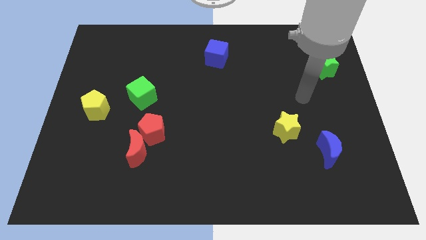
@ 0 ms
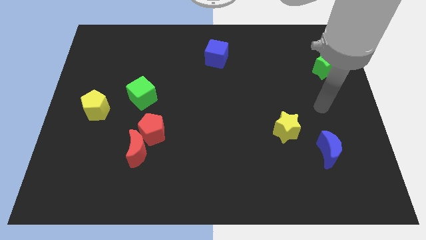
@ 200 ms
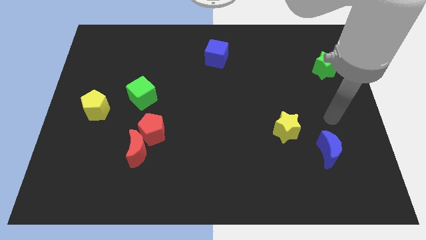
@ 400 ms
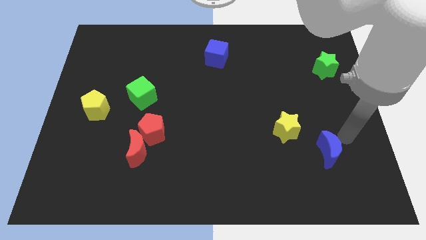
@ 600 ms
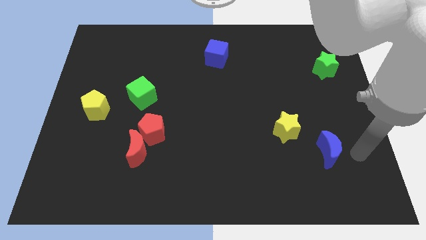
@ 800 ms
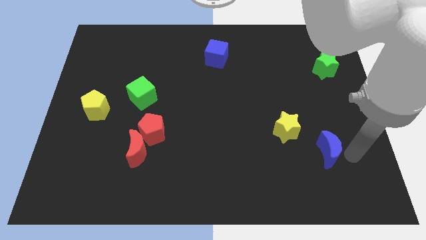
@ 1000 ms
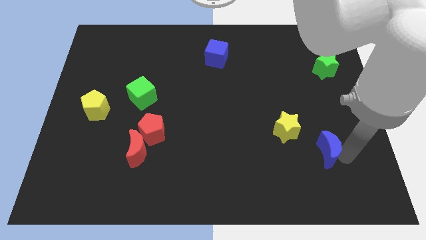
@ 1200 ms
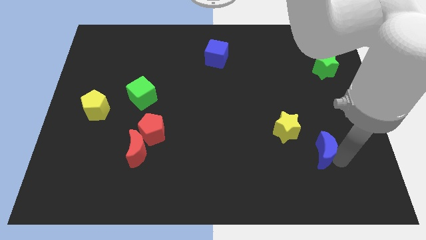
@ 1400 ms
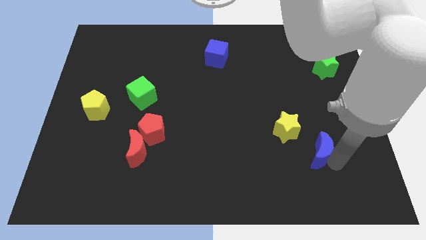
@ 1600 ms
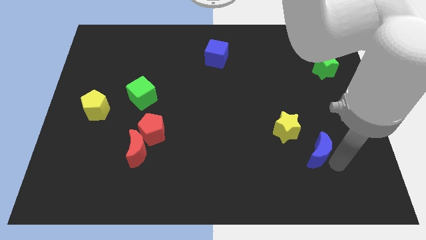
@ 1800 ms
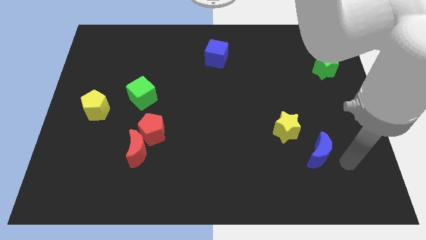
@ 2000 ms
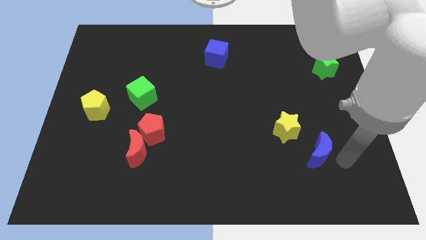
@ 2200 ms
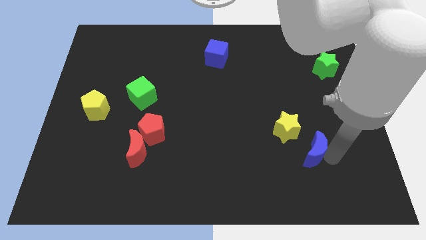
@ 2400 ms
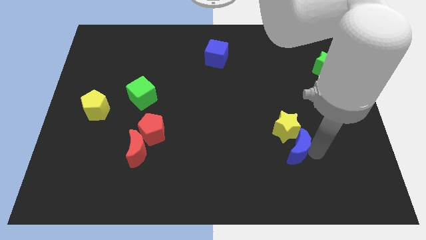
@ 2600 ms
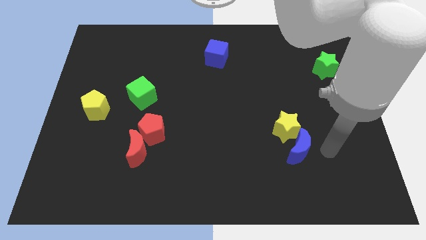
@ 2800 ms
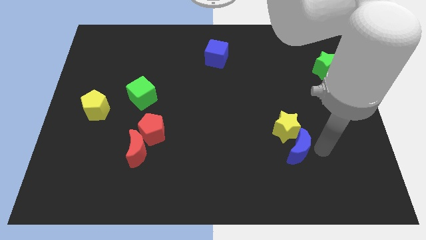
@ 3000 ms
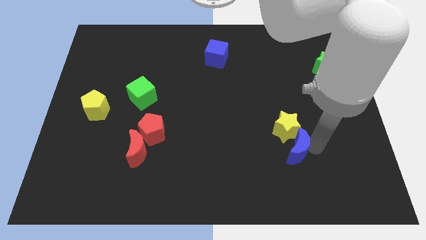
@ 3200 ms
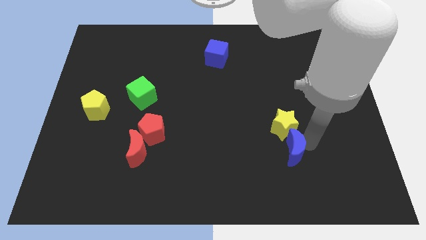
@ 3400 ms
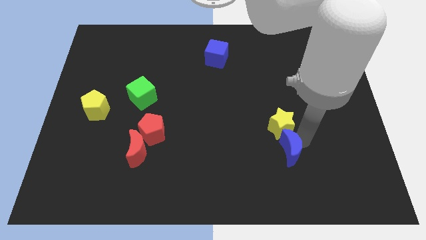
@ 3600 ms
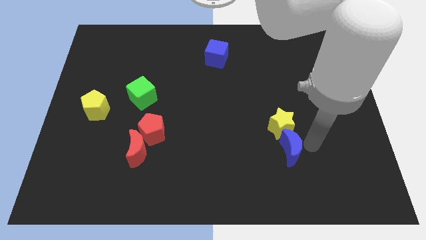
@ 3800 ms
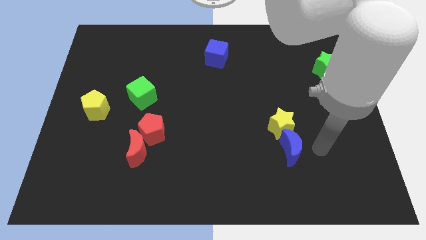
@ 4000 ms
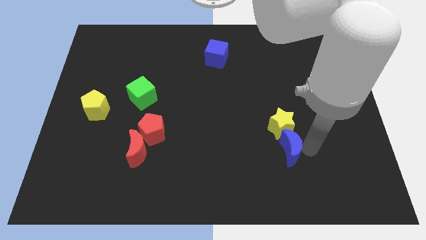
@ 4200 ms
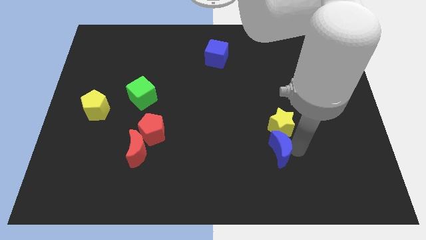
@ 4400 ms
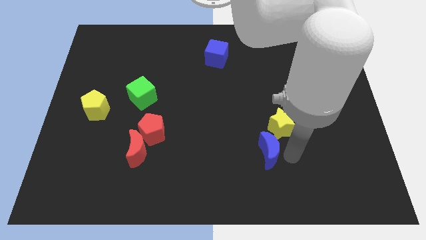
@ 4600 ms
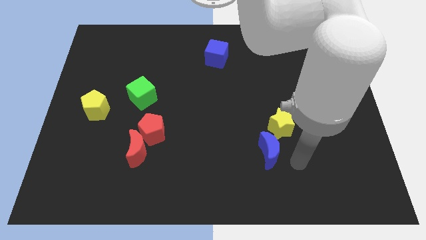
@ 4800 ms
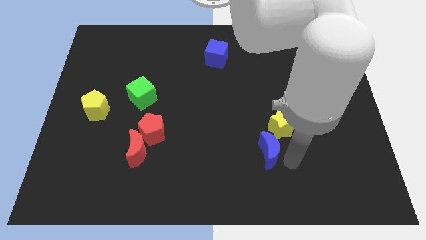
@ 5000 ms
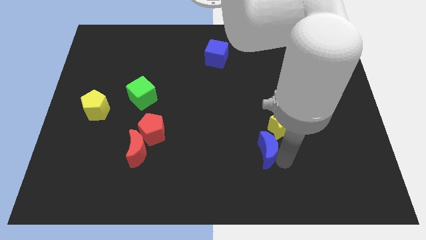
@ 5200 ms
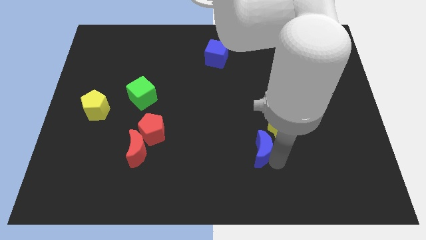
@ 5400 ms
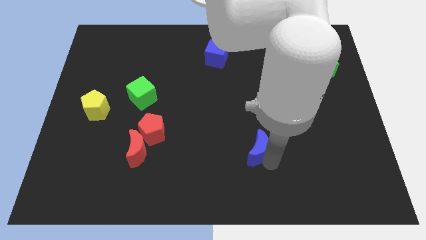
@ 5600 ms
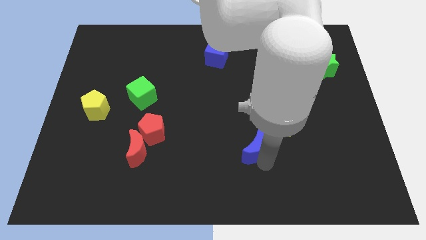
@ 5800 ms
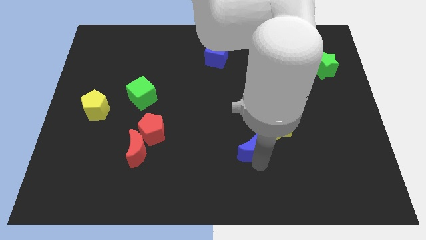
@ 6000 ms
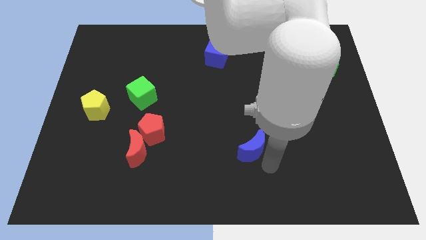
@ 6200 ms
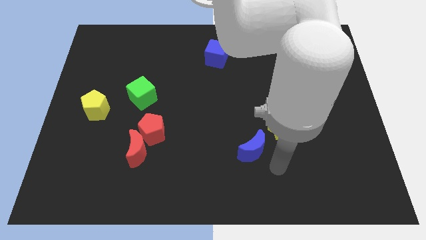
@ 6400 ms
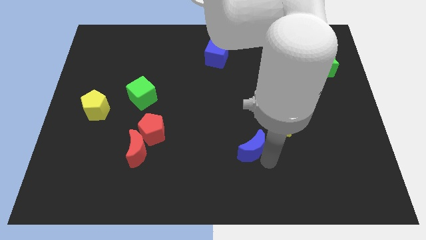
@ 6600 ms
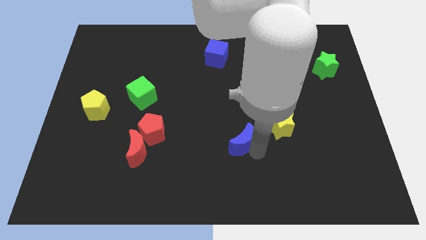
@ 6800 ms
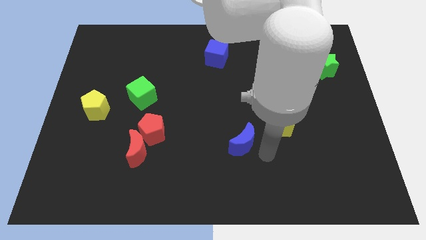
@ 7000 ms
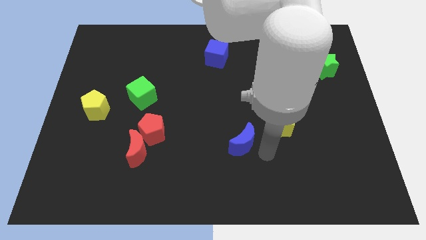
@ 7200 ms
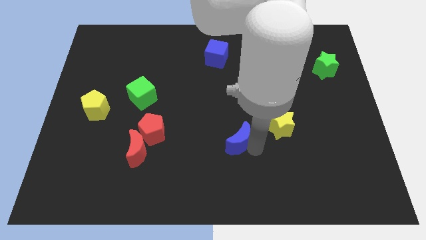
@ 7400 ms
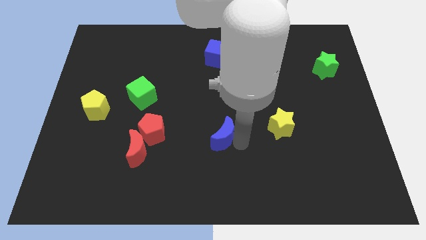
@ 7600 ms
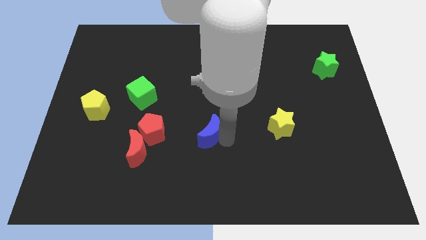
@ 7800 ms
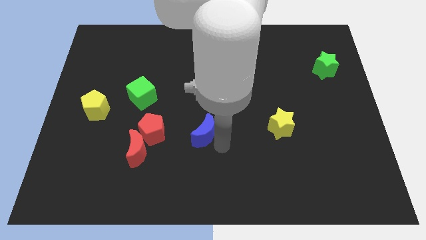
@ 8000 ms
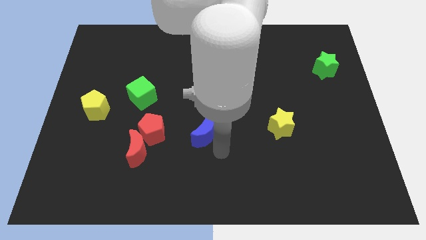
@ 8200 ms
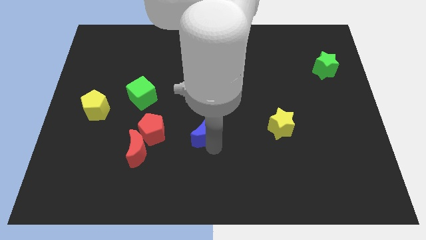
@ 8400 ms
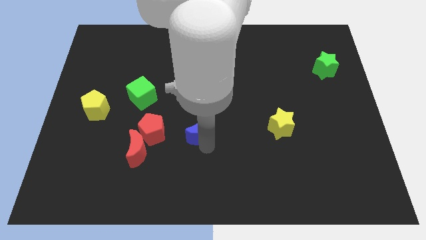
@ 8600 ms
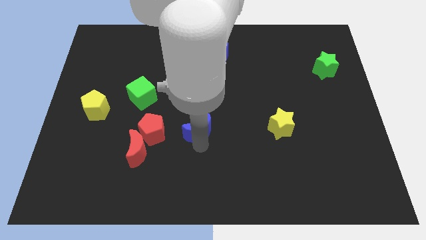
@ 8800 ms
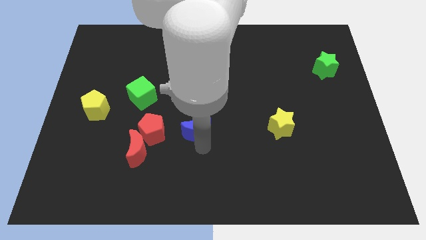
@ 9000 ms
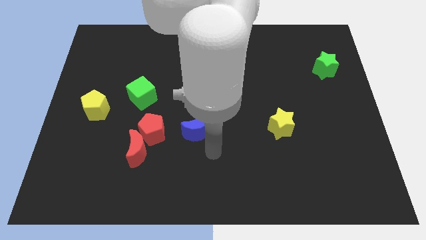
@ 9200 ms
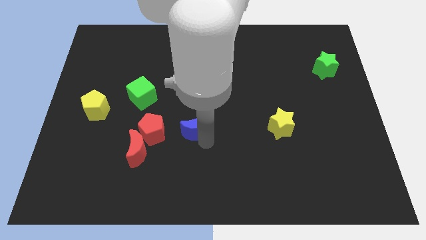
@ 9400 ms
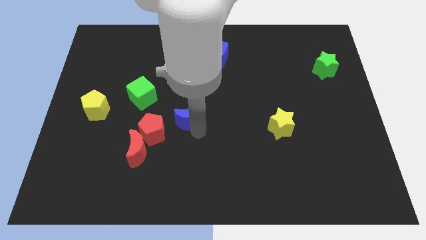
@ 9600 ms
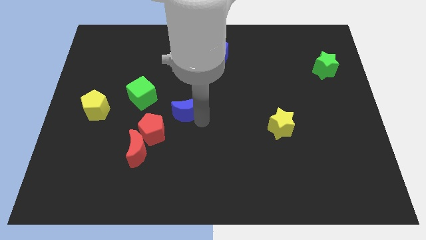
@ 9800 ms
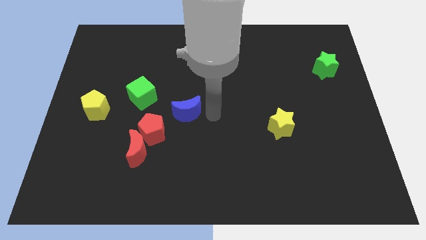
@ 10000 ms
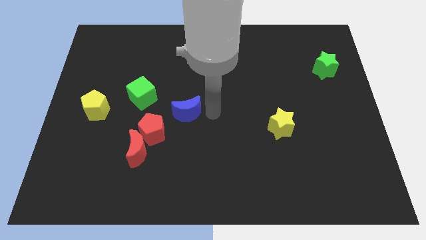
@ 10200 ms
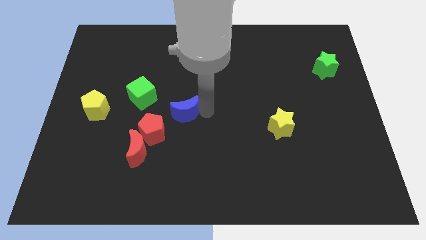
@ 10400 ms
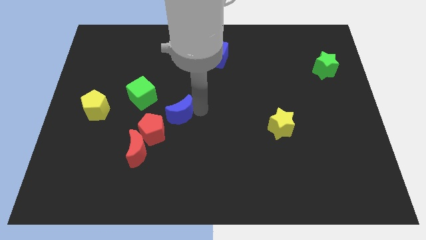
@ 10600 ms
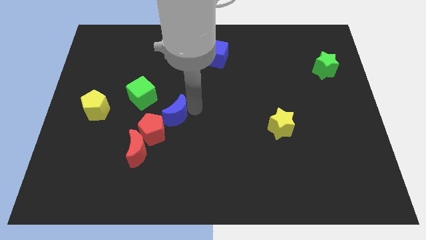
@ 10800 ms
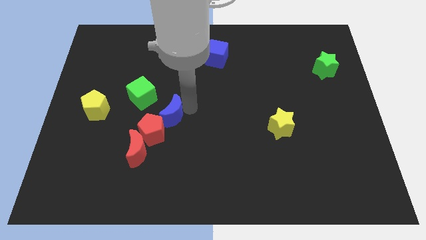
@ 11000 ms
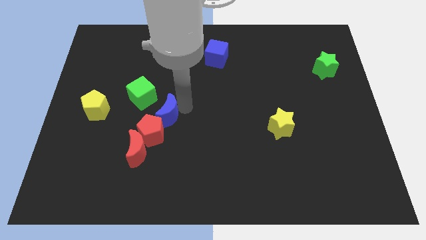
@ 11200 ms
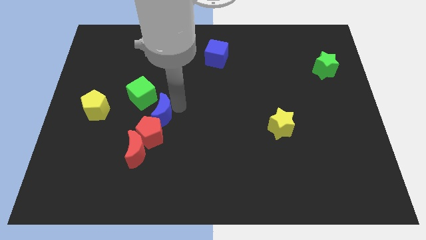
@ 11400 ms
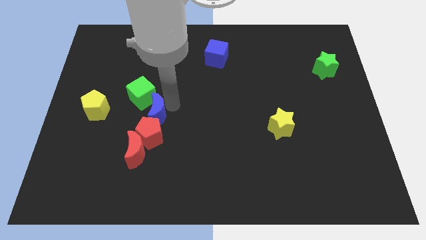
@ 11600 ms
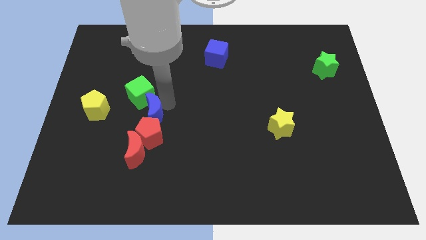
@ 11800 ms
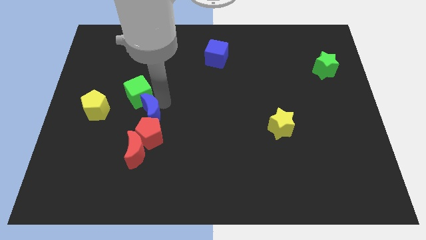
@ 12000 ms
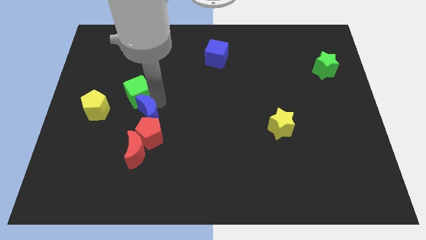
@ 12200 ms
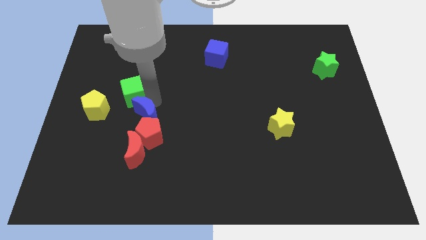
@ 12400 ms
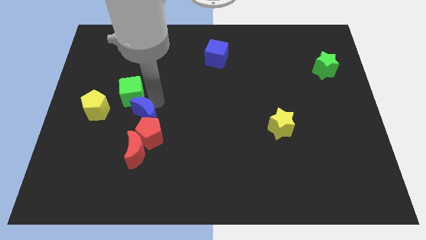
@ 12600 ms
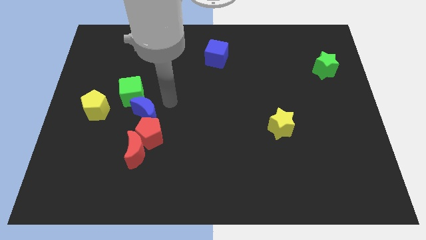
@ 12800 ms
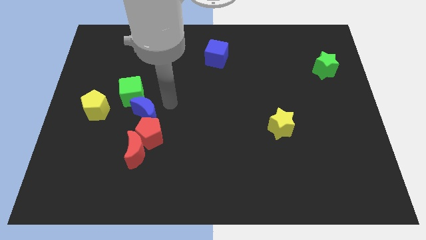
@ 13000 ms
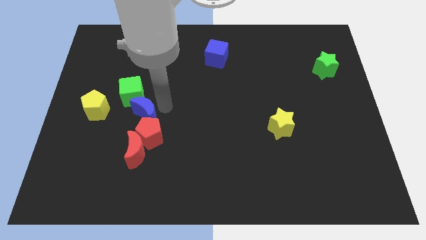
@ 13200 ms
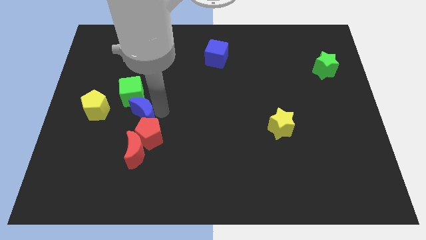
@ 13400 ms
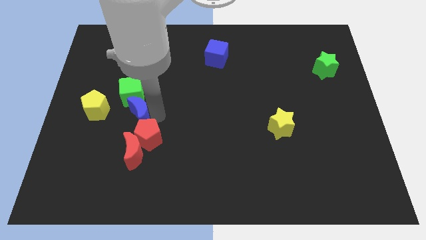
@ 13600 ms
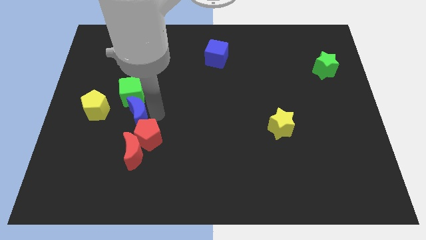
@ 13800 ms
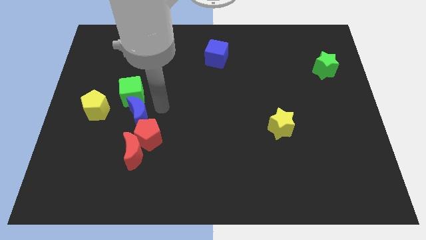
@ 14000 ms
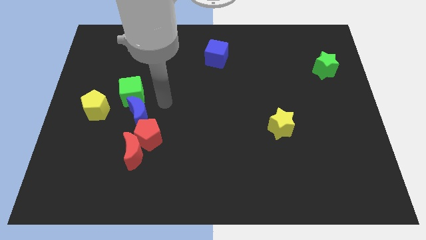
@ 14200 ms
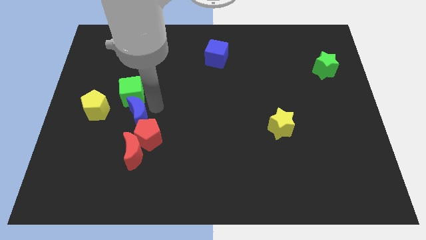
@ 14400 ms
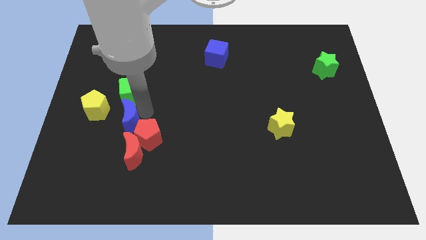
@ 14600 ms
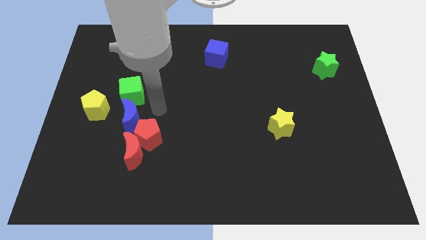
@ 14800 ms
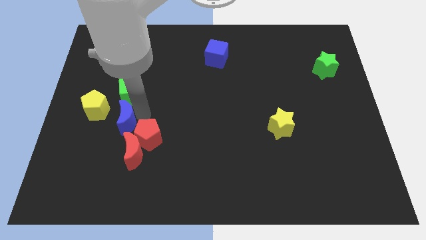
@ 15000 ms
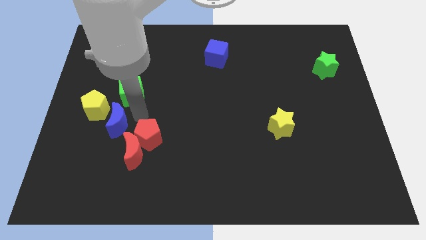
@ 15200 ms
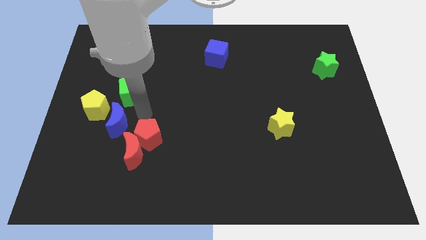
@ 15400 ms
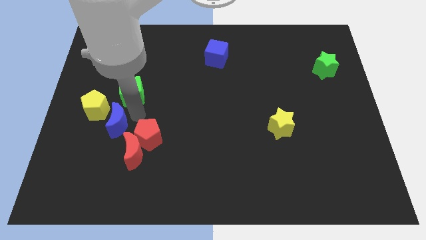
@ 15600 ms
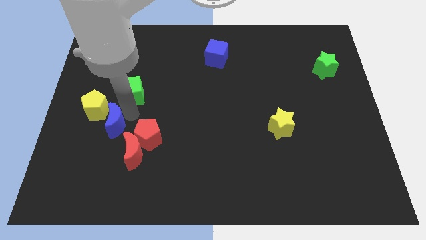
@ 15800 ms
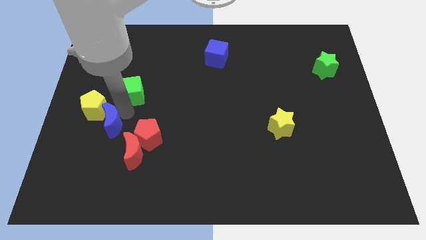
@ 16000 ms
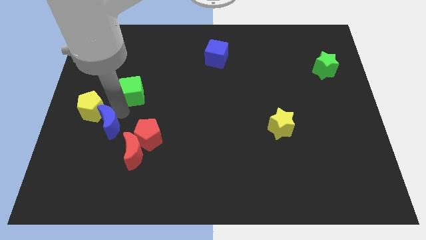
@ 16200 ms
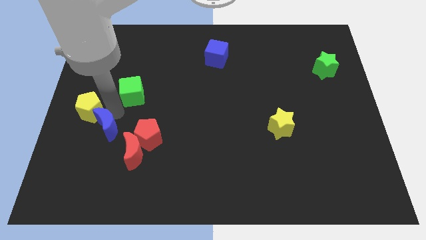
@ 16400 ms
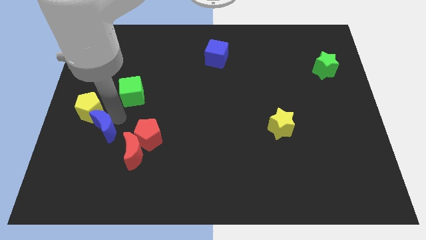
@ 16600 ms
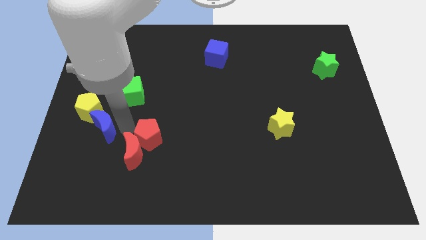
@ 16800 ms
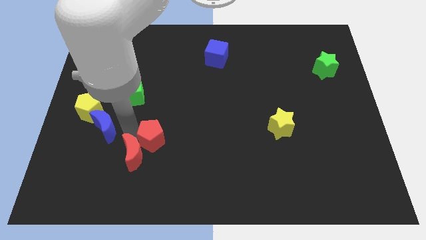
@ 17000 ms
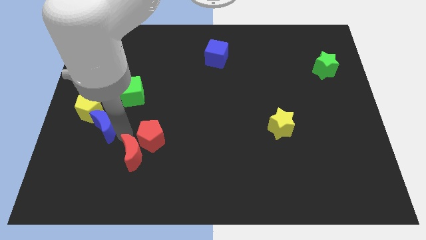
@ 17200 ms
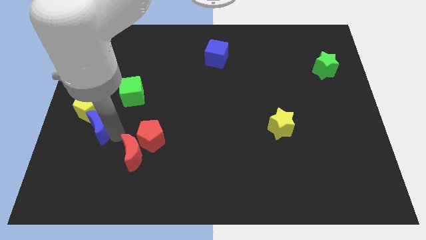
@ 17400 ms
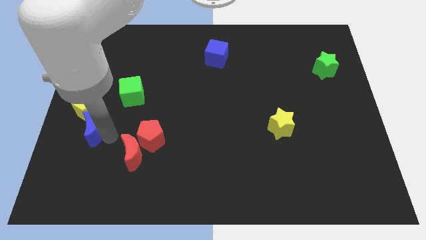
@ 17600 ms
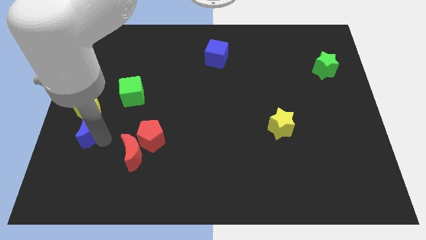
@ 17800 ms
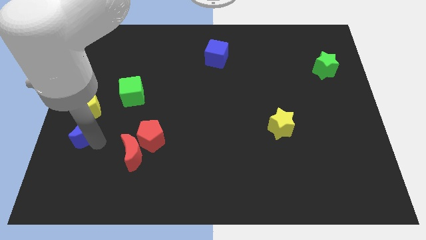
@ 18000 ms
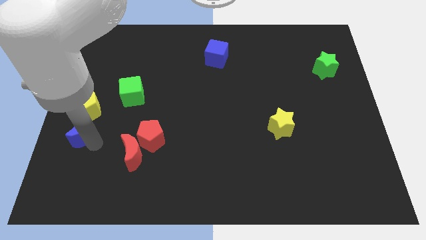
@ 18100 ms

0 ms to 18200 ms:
move the blue moon to the left side of the board
